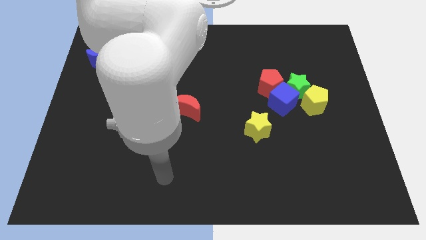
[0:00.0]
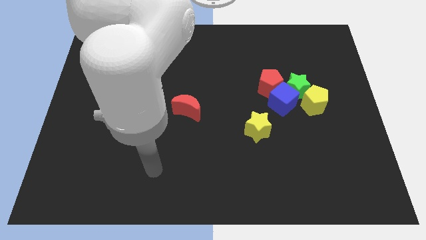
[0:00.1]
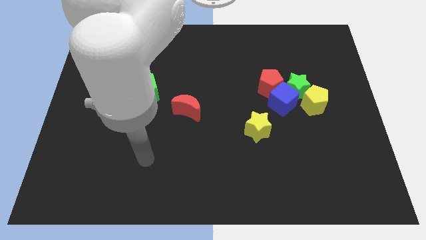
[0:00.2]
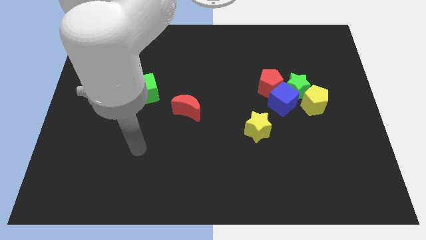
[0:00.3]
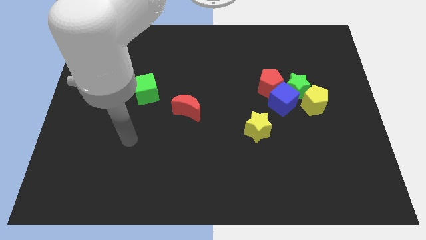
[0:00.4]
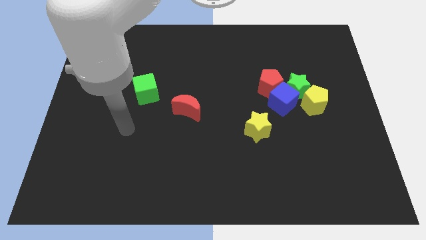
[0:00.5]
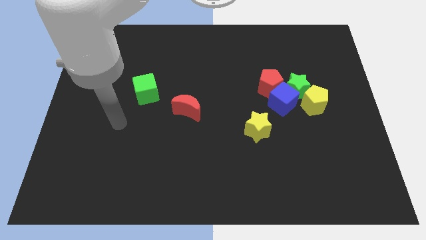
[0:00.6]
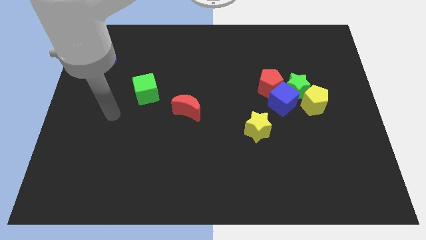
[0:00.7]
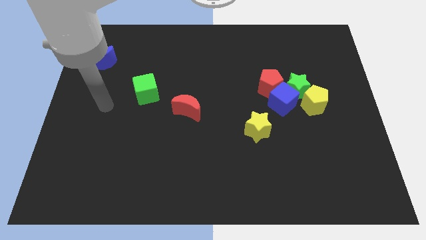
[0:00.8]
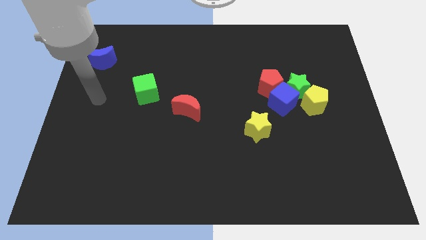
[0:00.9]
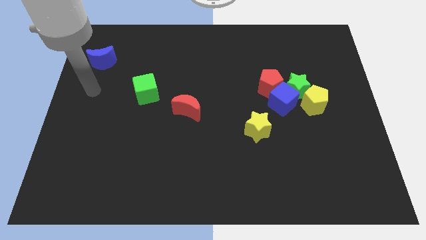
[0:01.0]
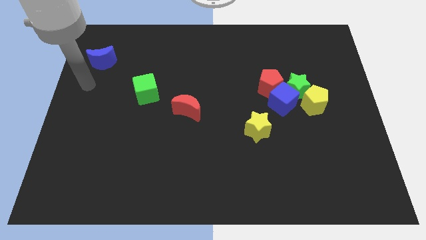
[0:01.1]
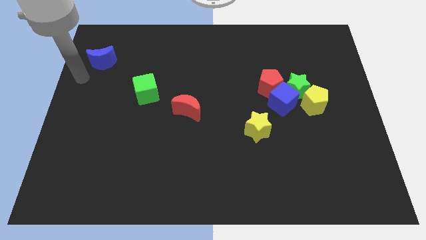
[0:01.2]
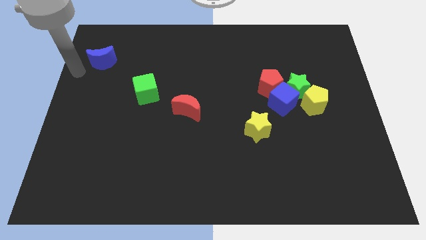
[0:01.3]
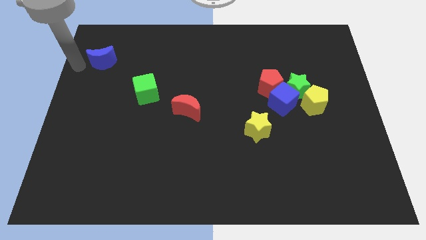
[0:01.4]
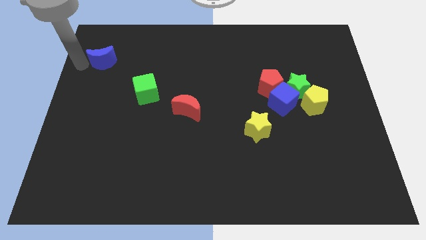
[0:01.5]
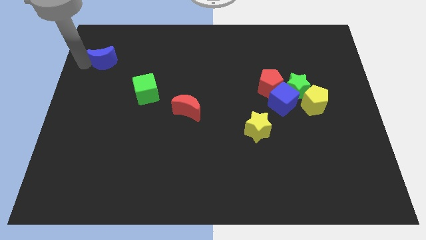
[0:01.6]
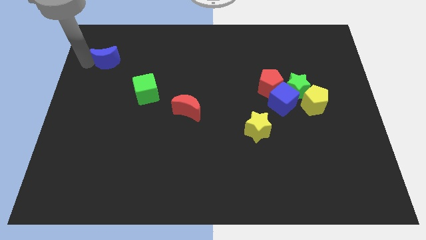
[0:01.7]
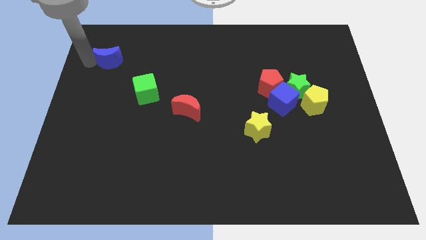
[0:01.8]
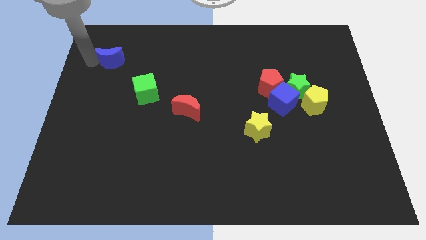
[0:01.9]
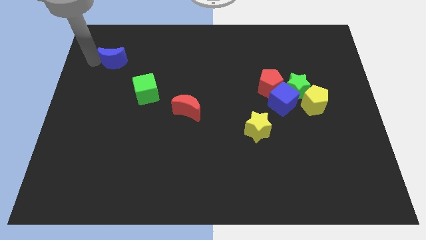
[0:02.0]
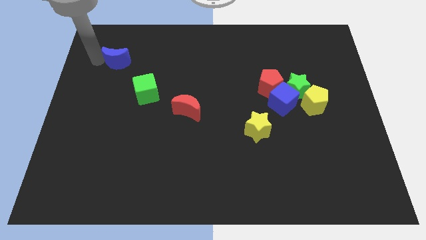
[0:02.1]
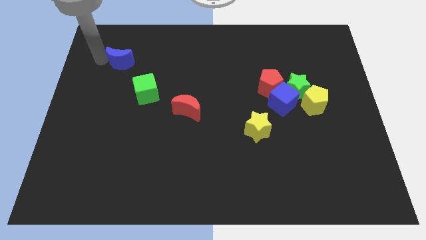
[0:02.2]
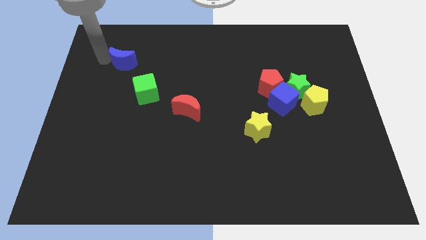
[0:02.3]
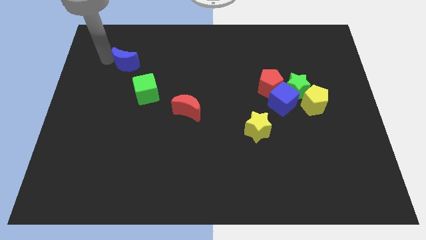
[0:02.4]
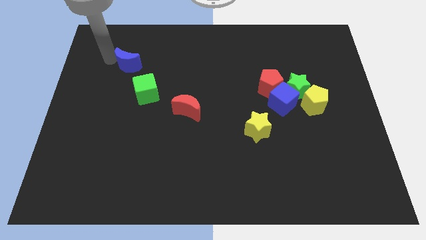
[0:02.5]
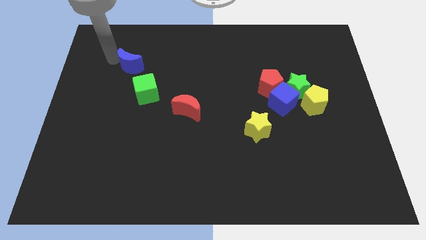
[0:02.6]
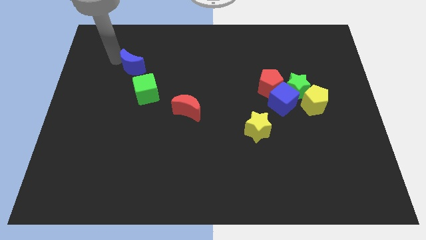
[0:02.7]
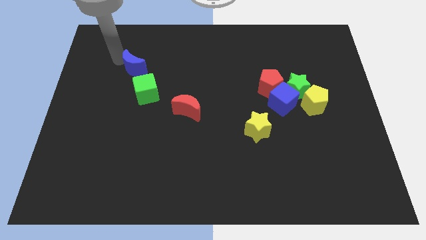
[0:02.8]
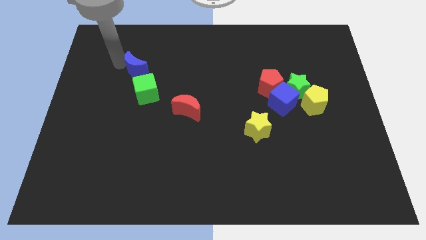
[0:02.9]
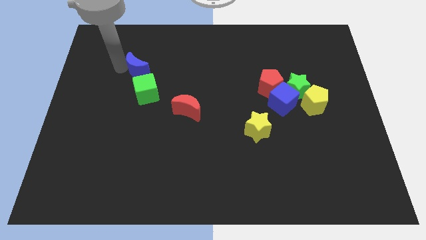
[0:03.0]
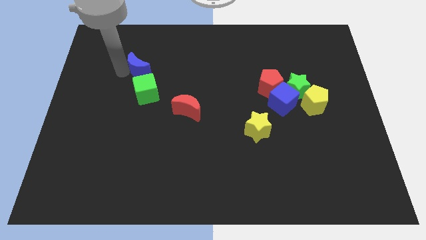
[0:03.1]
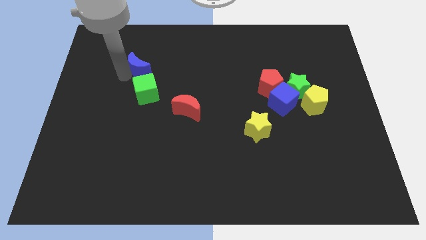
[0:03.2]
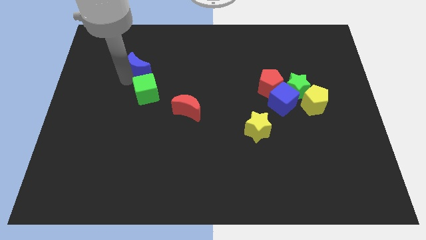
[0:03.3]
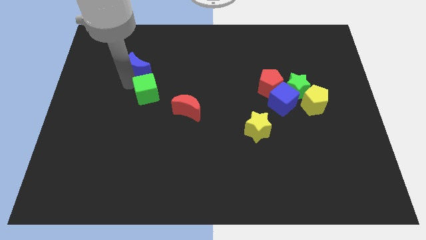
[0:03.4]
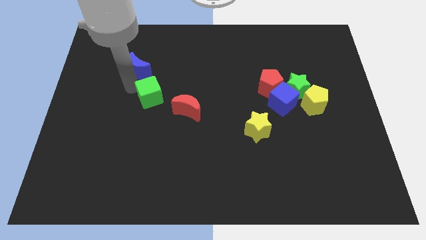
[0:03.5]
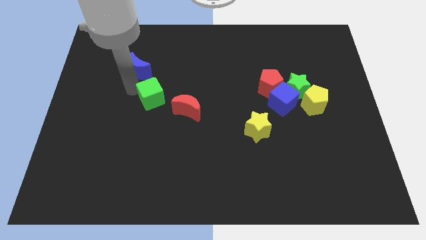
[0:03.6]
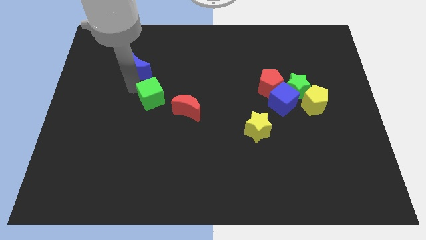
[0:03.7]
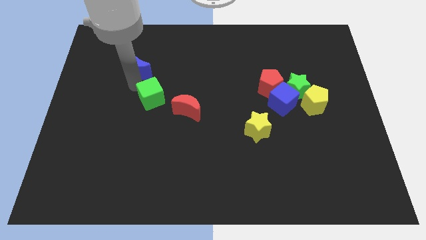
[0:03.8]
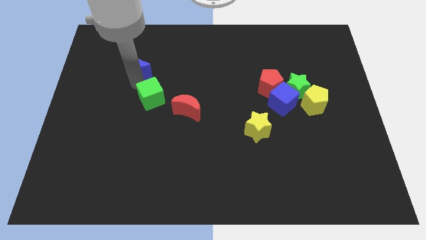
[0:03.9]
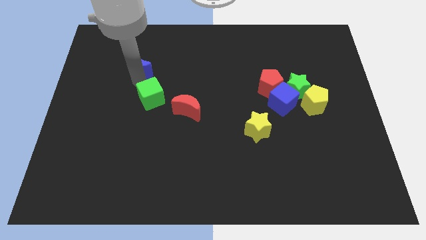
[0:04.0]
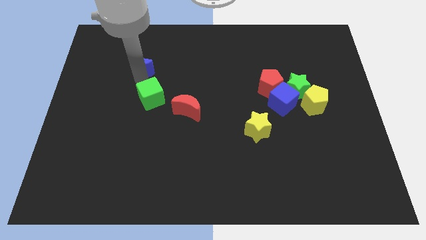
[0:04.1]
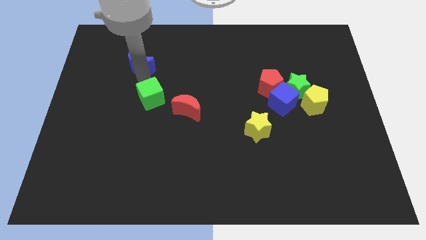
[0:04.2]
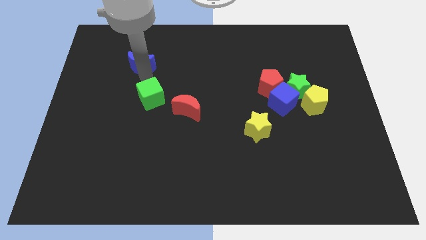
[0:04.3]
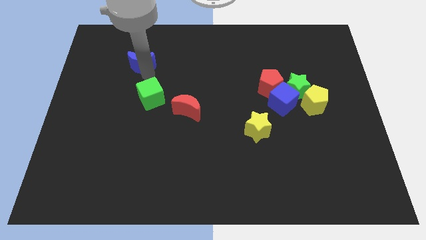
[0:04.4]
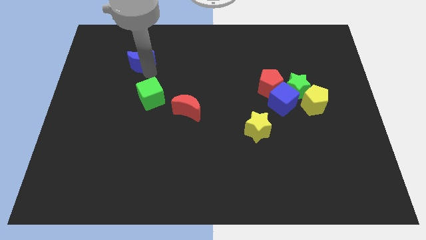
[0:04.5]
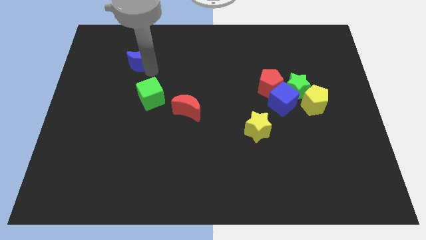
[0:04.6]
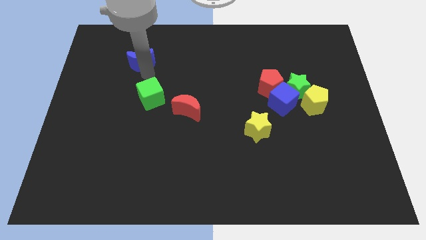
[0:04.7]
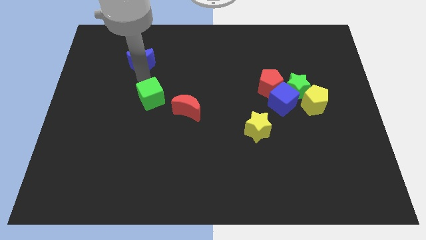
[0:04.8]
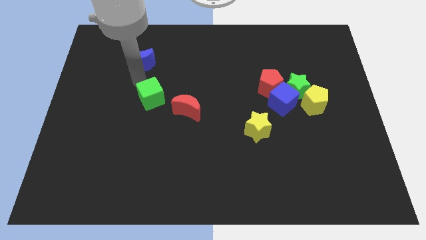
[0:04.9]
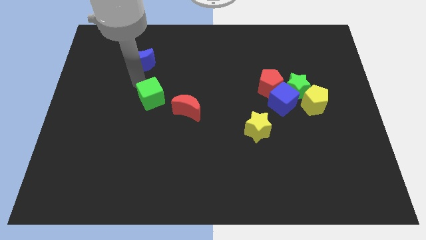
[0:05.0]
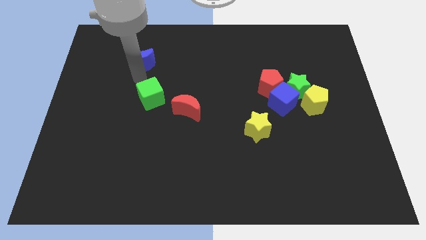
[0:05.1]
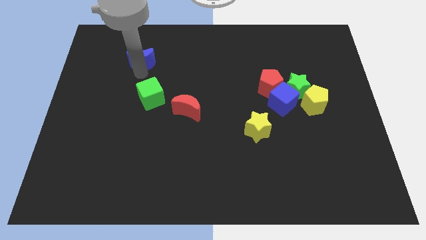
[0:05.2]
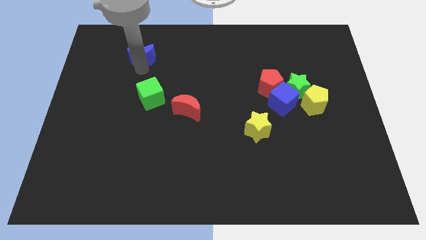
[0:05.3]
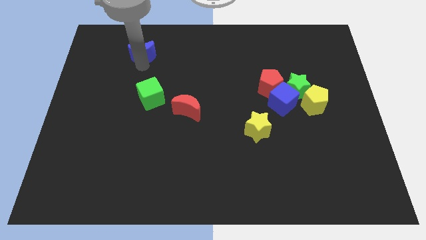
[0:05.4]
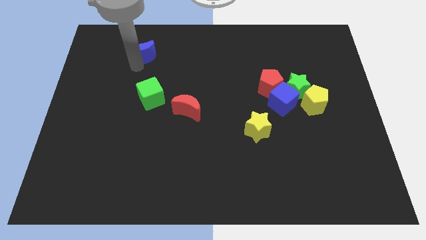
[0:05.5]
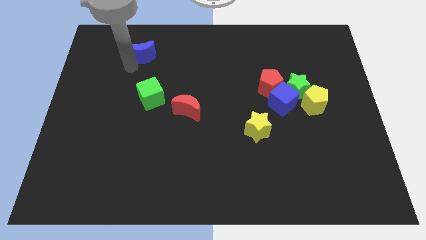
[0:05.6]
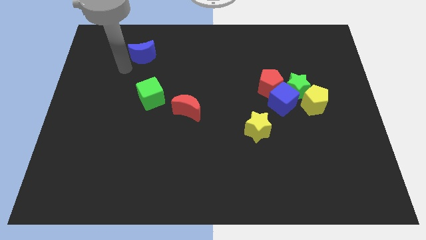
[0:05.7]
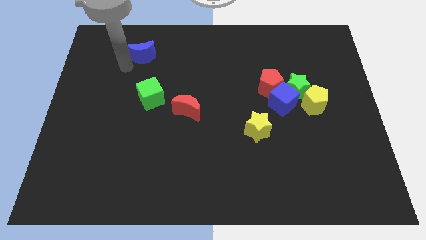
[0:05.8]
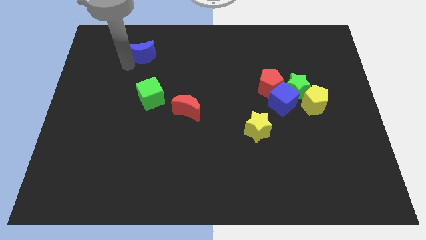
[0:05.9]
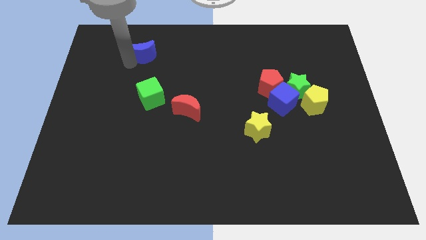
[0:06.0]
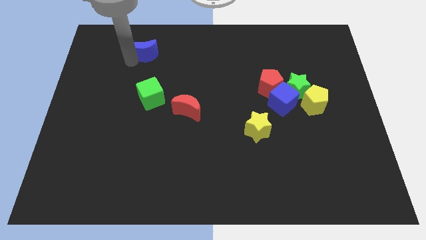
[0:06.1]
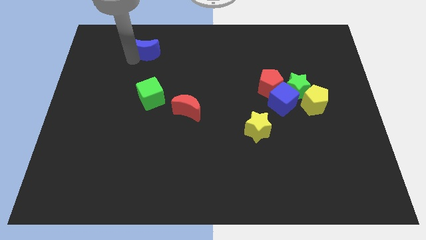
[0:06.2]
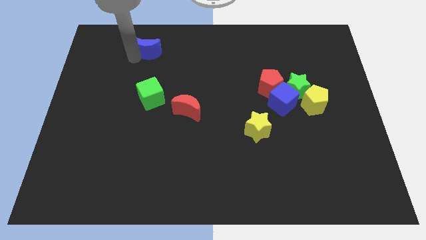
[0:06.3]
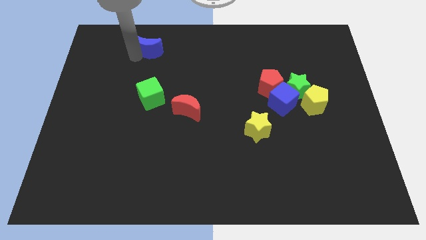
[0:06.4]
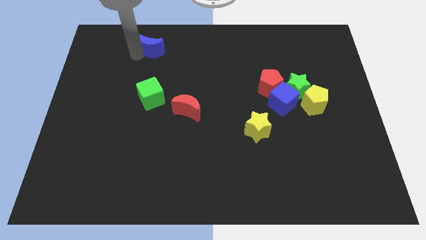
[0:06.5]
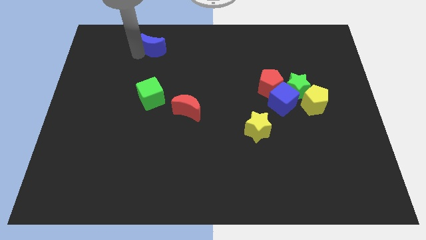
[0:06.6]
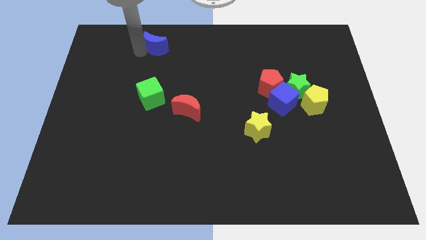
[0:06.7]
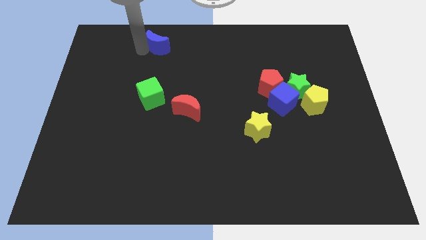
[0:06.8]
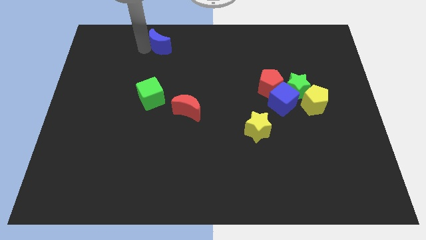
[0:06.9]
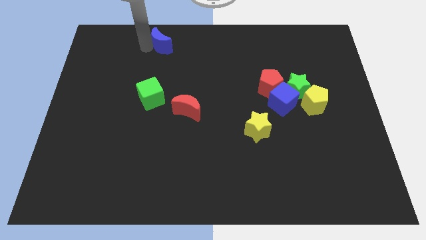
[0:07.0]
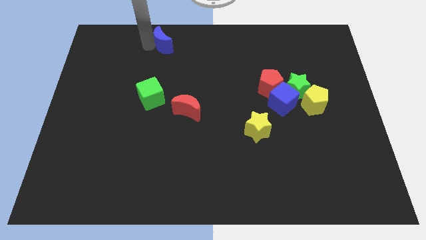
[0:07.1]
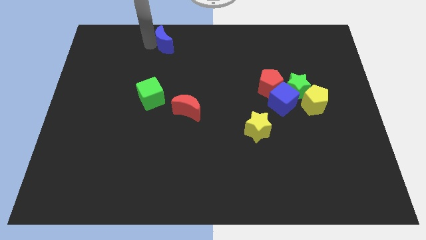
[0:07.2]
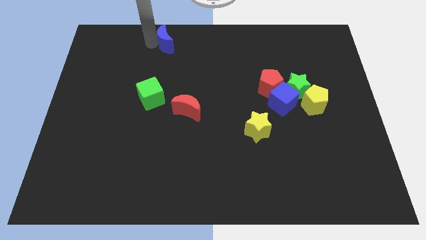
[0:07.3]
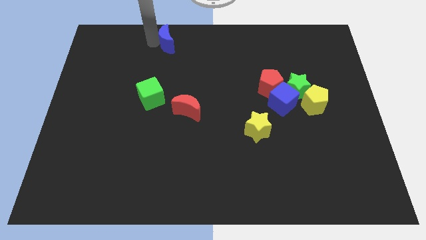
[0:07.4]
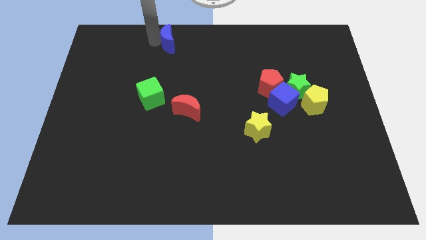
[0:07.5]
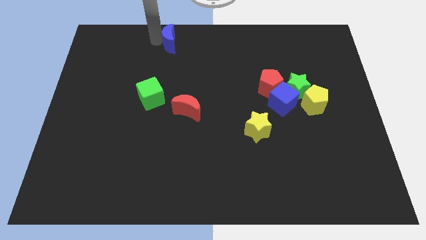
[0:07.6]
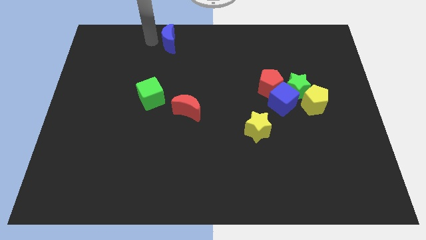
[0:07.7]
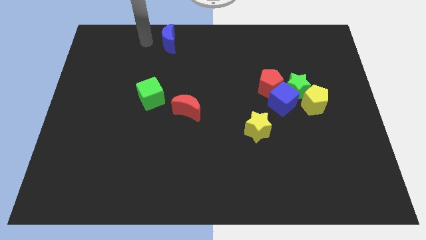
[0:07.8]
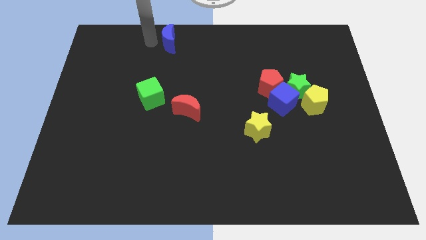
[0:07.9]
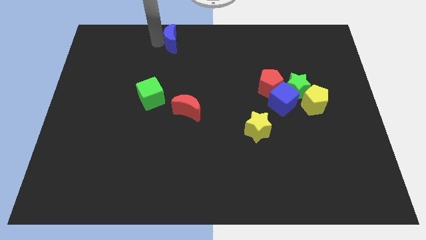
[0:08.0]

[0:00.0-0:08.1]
put the blue moon to the top
